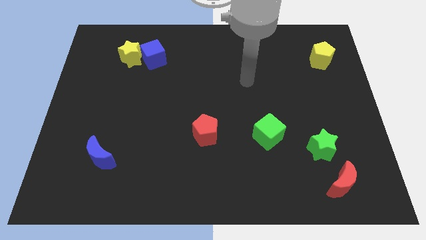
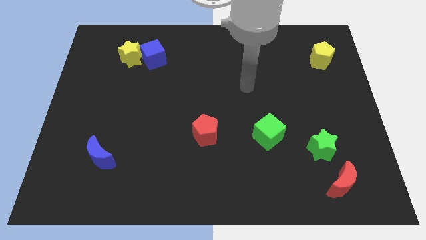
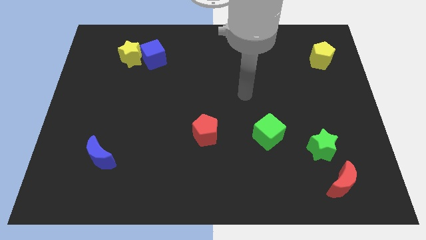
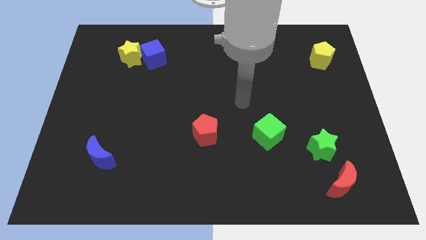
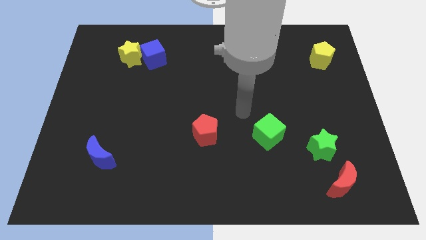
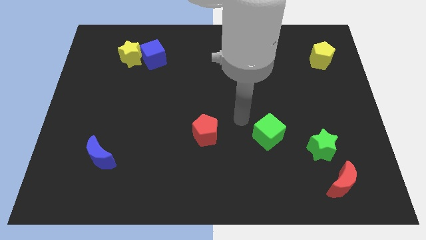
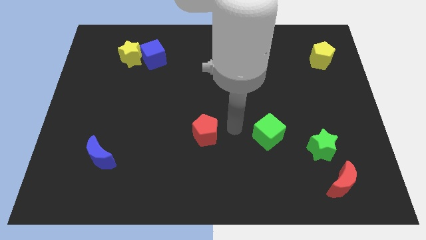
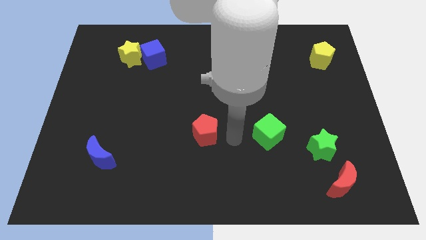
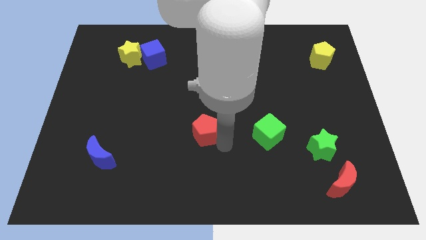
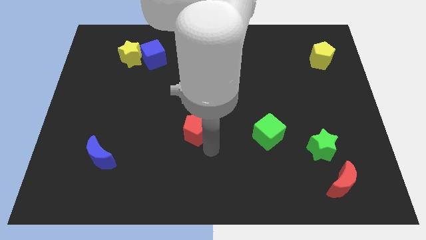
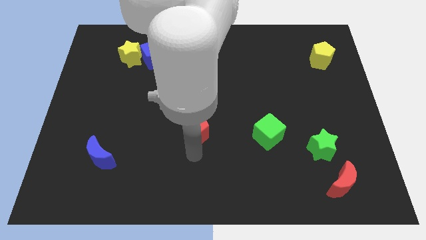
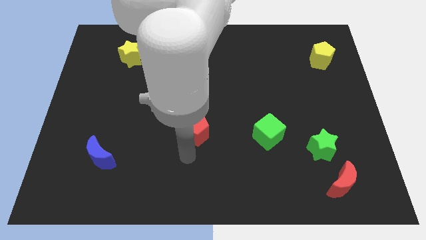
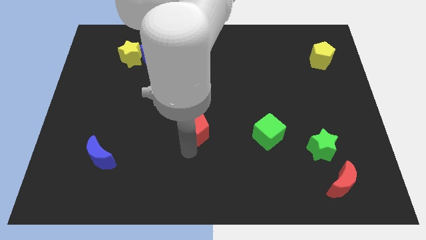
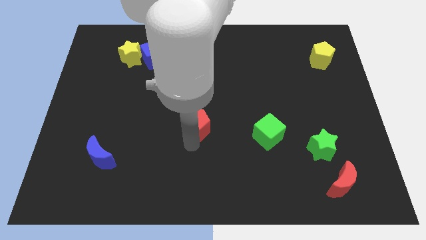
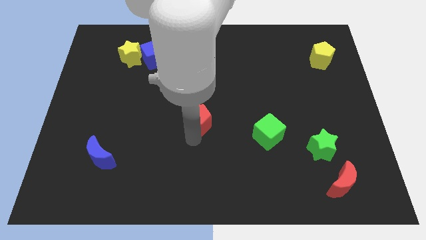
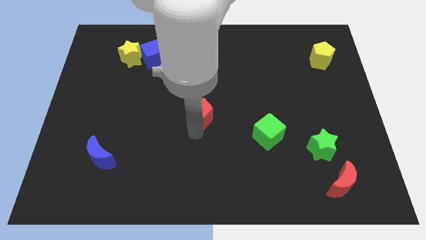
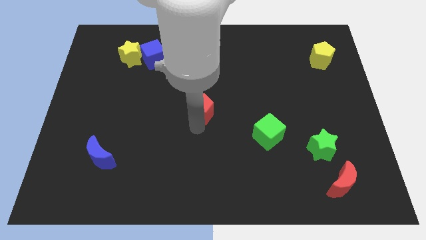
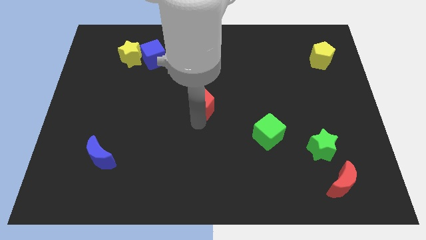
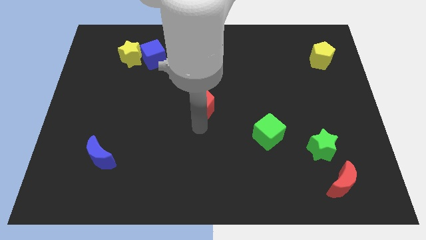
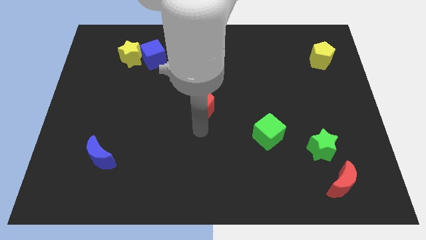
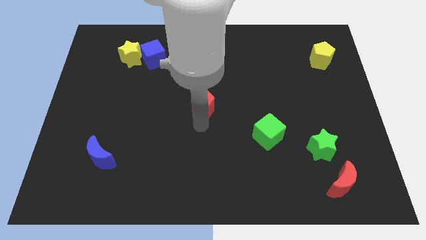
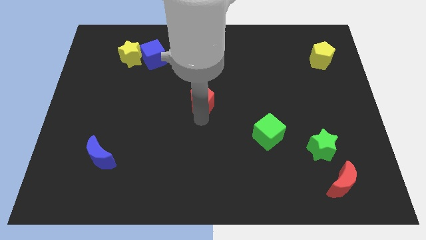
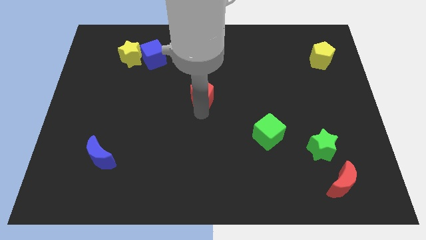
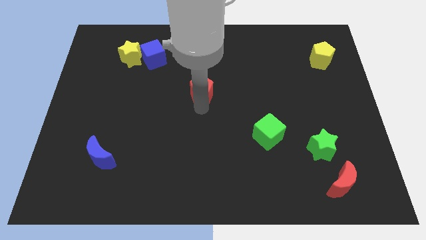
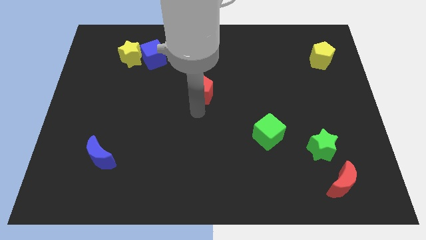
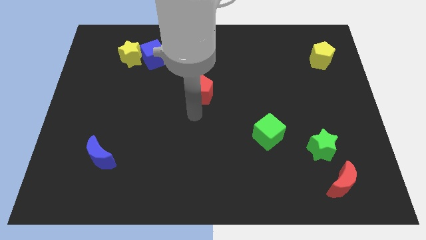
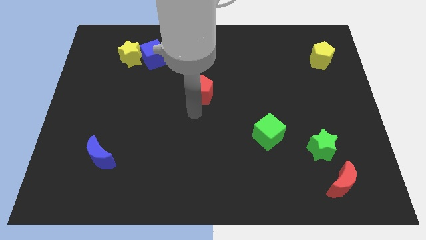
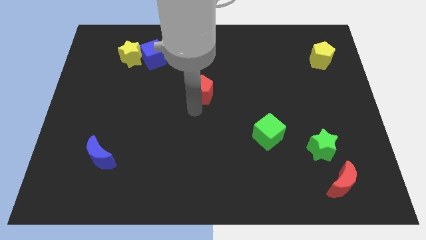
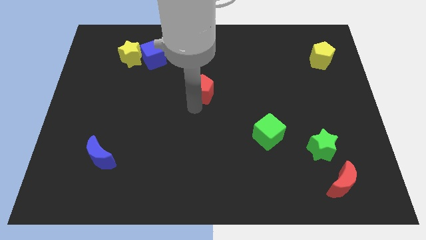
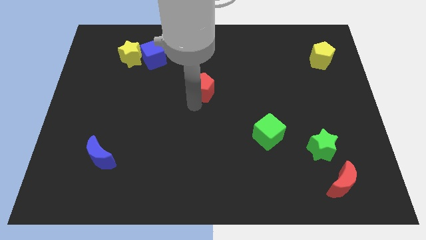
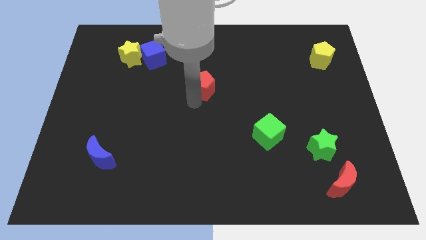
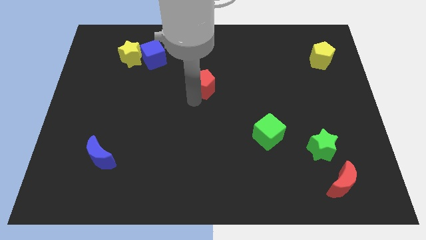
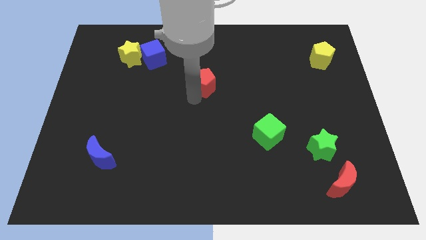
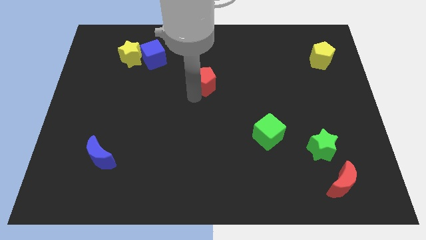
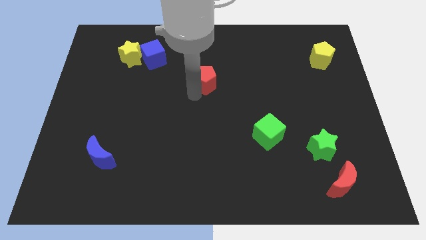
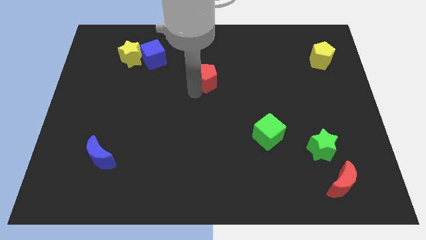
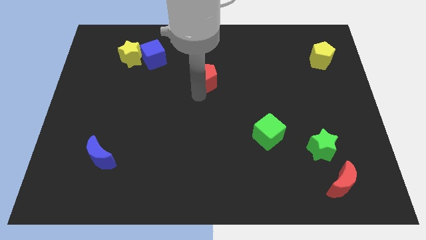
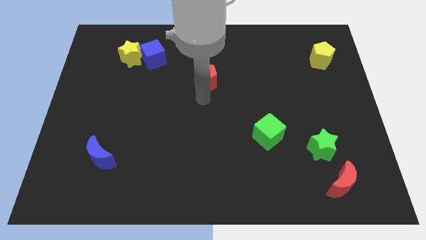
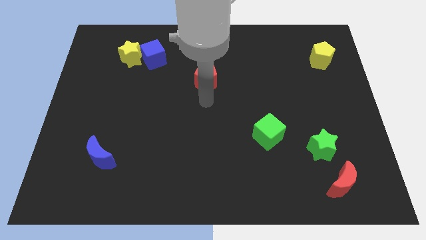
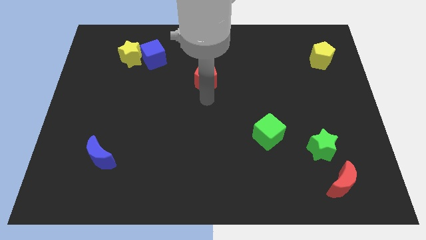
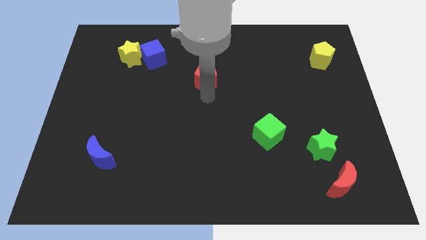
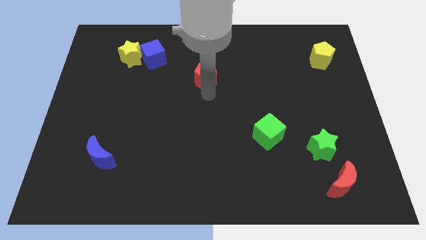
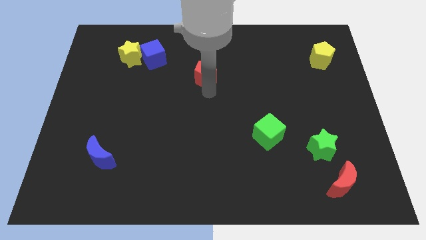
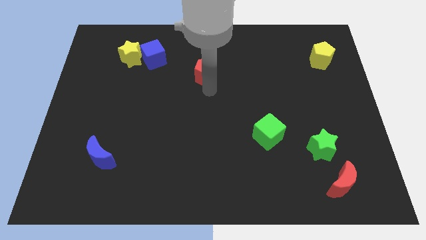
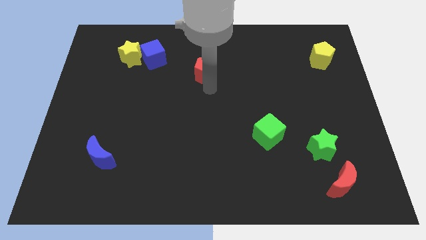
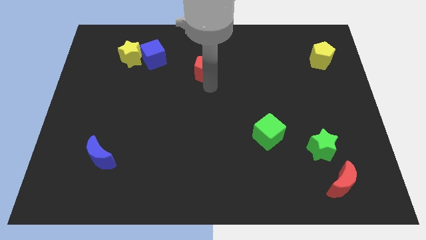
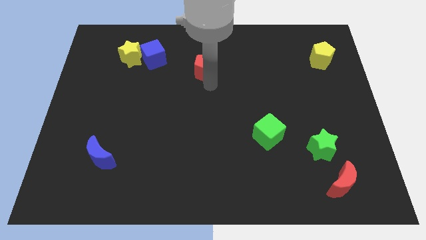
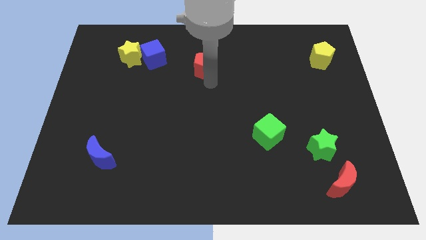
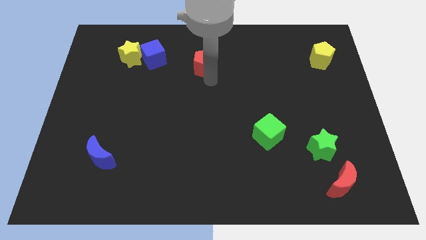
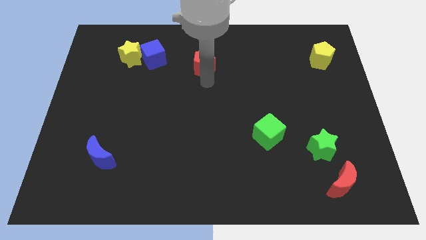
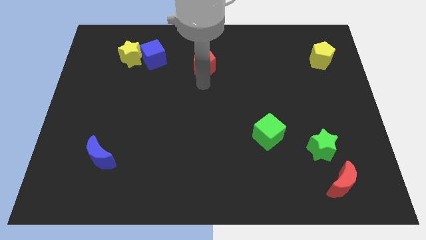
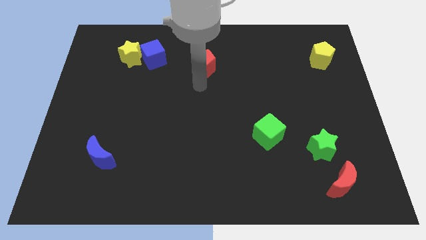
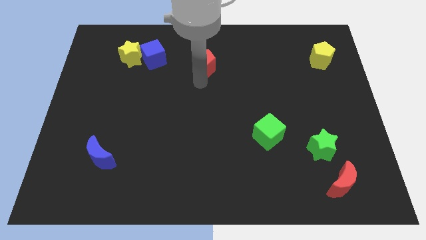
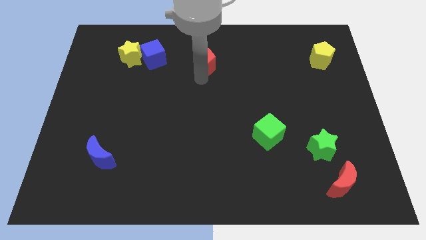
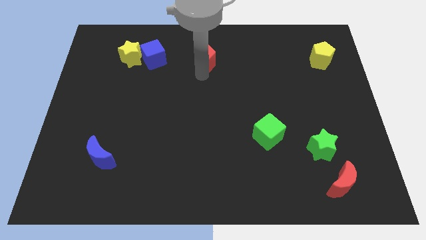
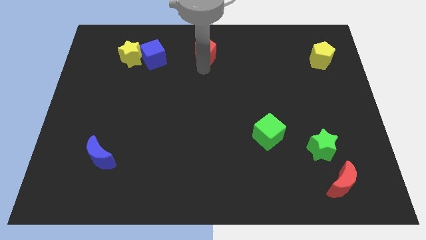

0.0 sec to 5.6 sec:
slide the red pentagon to the towards your base
